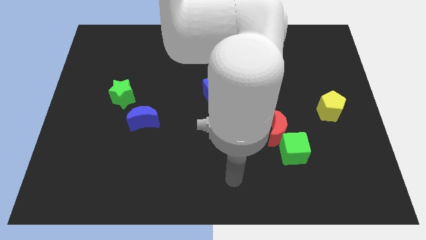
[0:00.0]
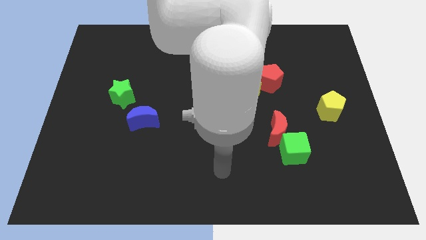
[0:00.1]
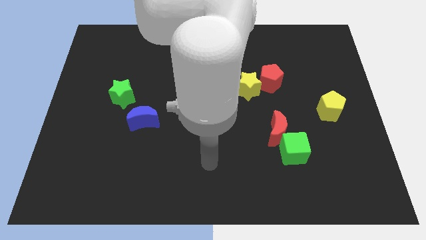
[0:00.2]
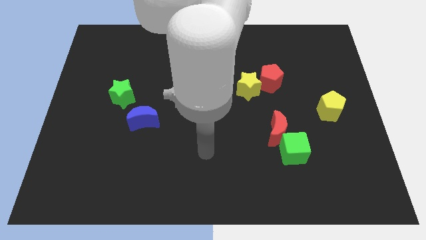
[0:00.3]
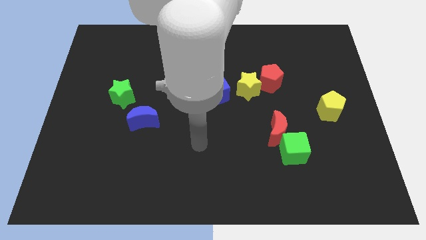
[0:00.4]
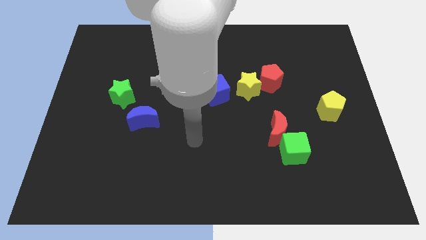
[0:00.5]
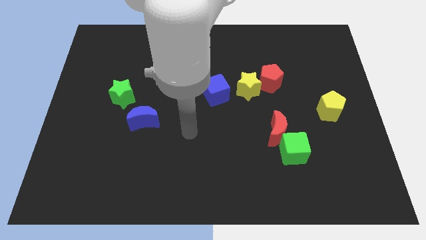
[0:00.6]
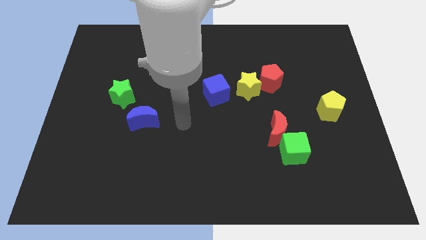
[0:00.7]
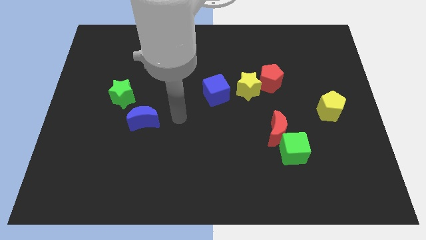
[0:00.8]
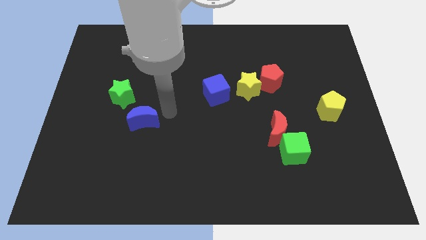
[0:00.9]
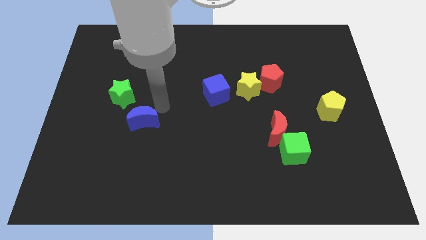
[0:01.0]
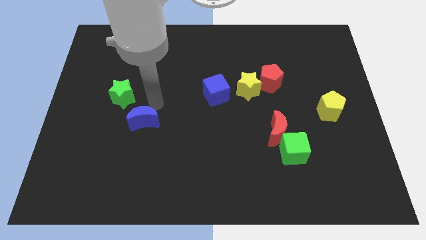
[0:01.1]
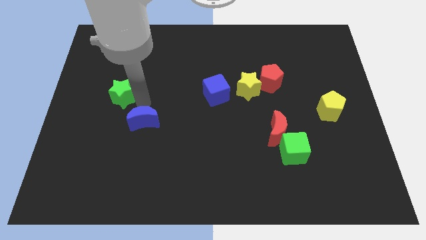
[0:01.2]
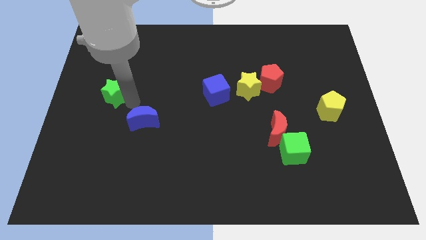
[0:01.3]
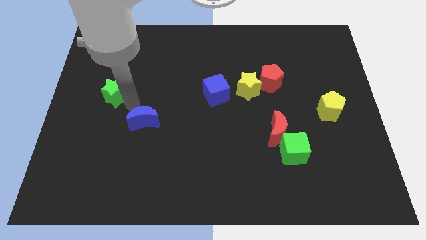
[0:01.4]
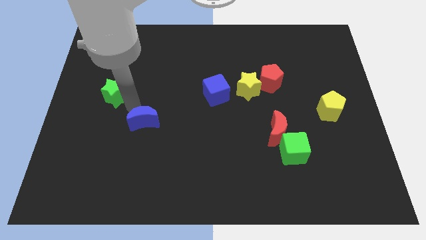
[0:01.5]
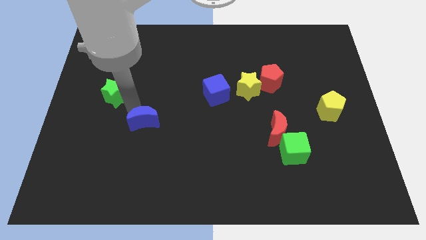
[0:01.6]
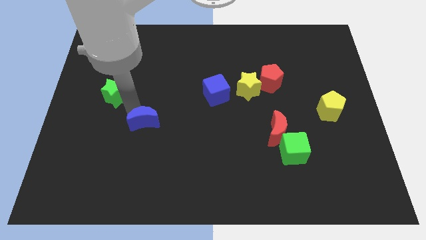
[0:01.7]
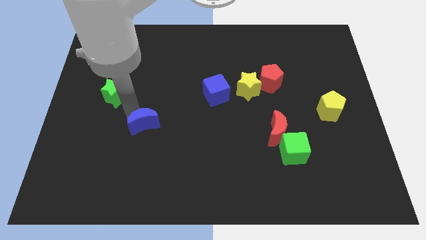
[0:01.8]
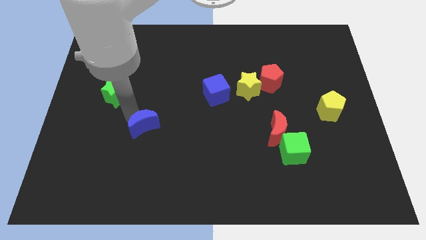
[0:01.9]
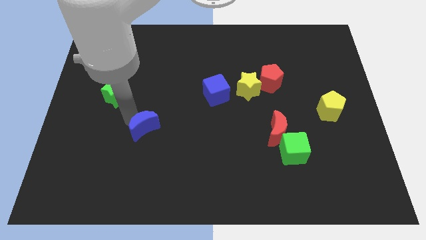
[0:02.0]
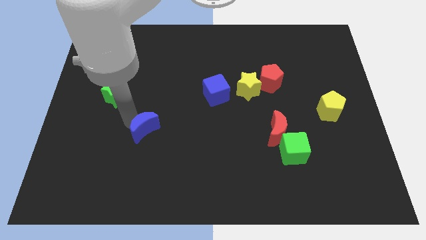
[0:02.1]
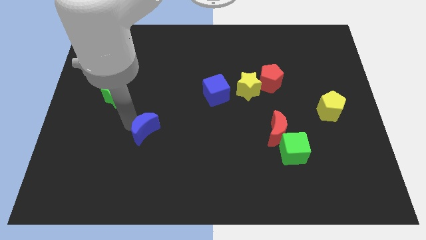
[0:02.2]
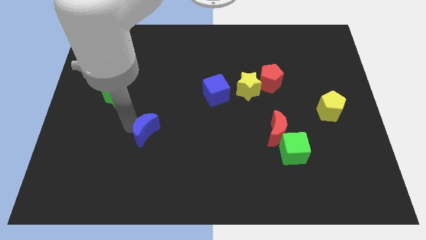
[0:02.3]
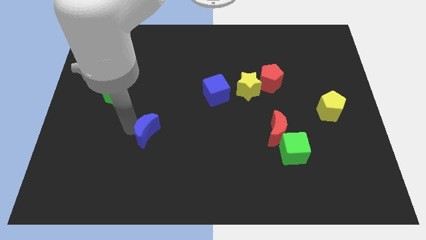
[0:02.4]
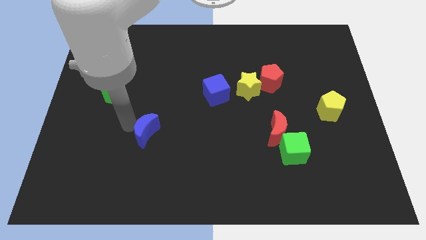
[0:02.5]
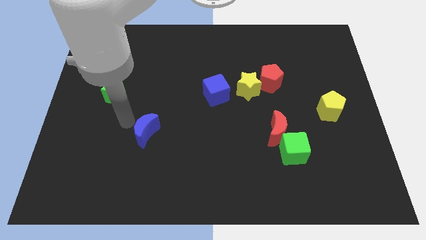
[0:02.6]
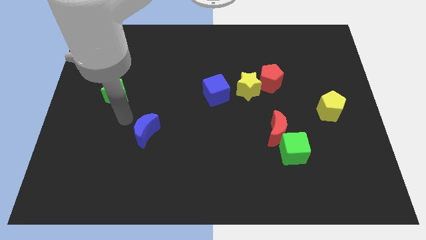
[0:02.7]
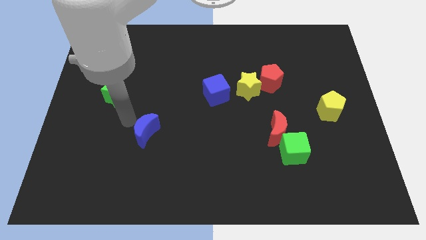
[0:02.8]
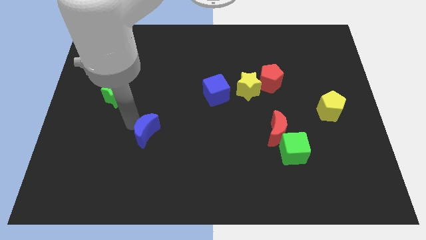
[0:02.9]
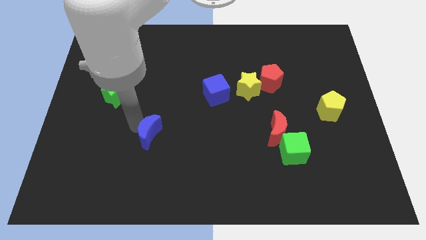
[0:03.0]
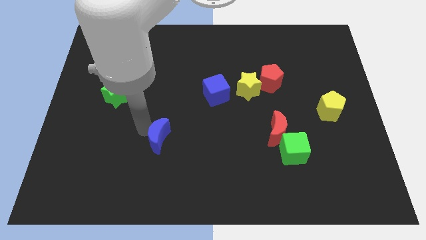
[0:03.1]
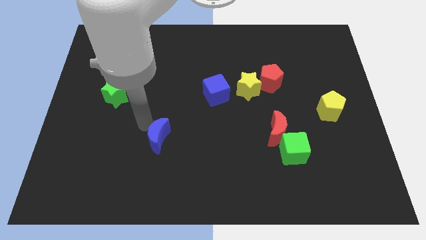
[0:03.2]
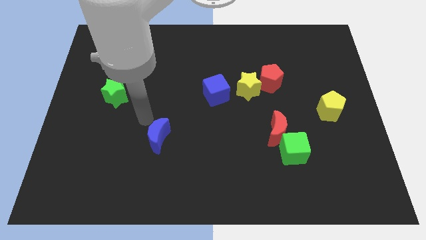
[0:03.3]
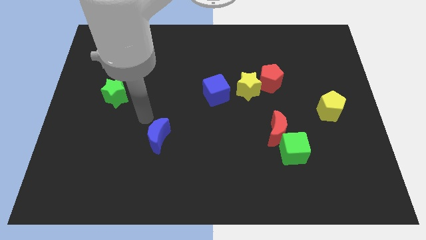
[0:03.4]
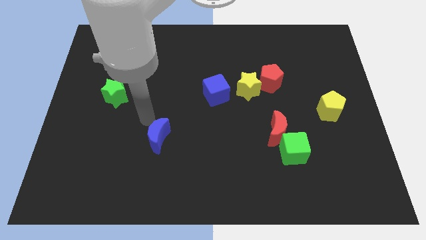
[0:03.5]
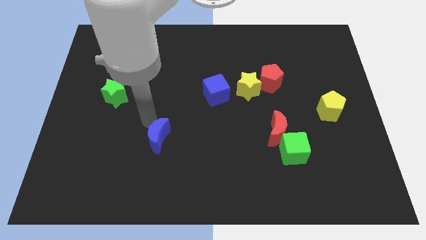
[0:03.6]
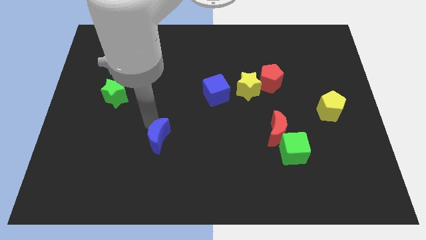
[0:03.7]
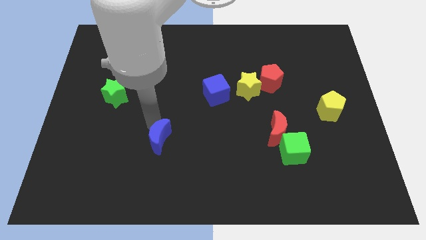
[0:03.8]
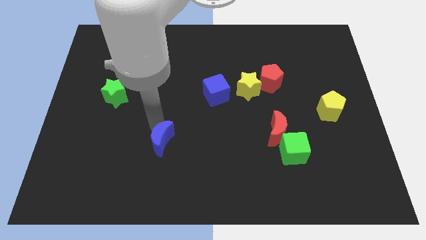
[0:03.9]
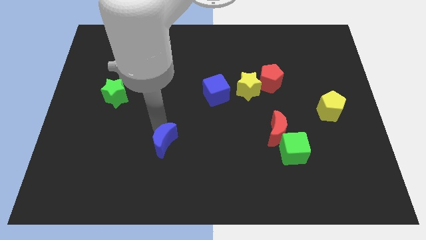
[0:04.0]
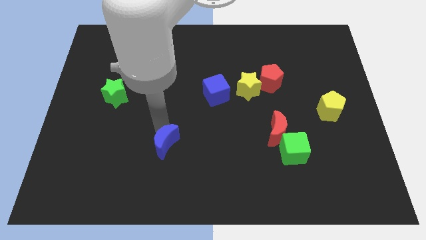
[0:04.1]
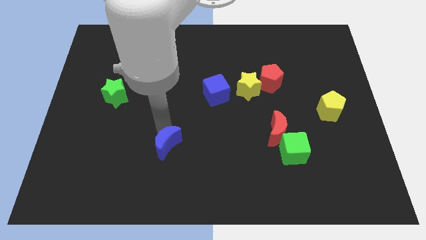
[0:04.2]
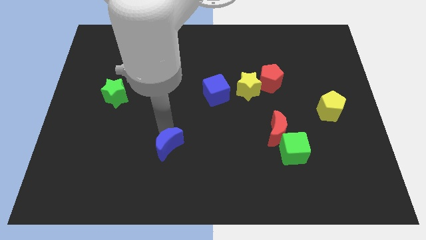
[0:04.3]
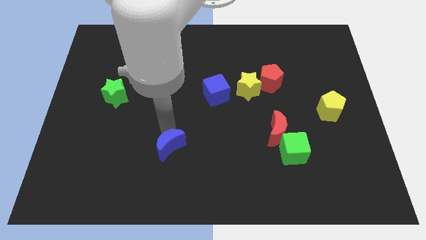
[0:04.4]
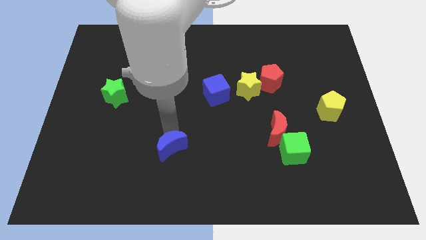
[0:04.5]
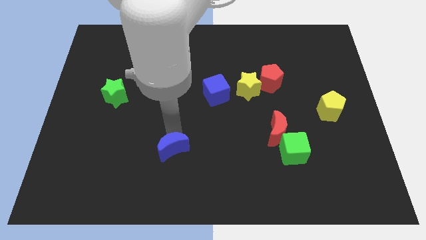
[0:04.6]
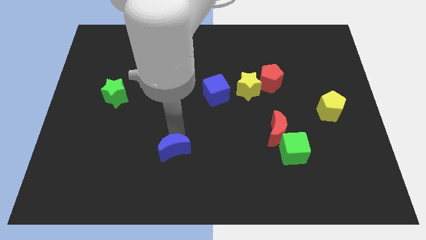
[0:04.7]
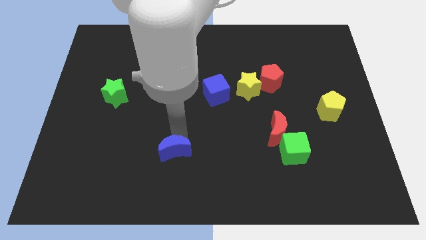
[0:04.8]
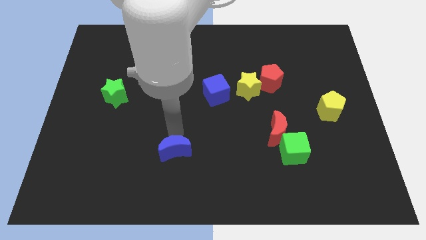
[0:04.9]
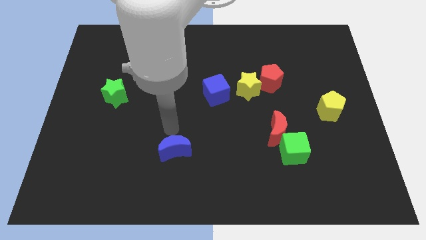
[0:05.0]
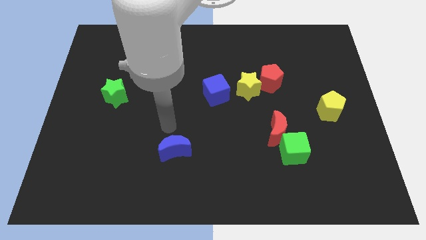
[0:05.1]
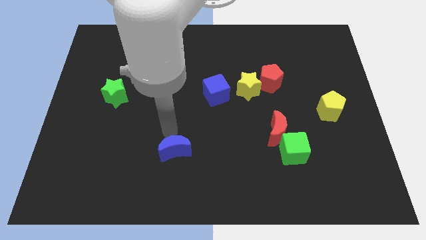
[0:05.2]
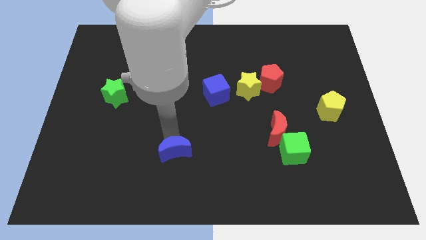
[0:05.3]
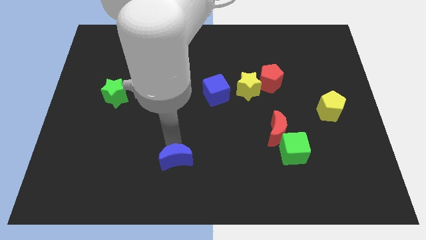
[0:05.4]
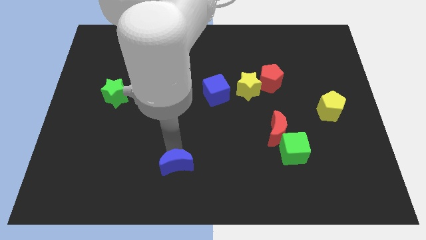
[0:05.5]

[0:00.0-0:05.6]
slide the blue moon to the bottom

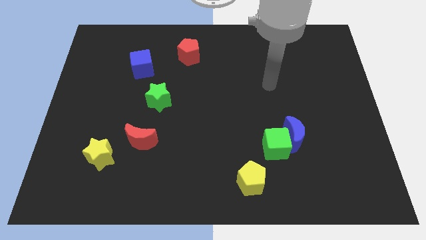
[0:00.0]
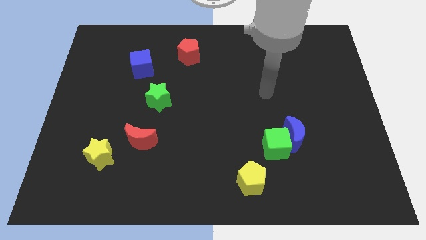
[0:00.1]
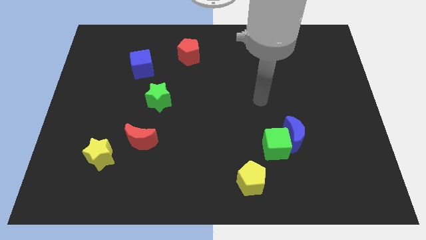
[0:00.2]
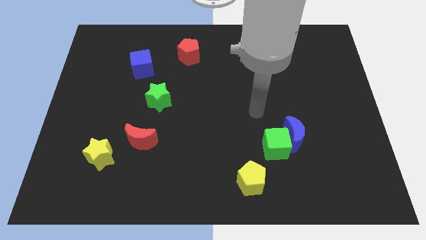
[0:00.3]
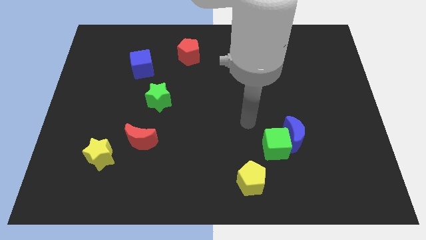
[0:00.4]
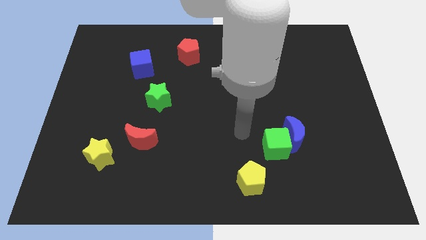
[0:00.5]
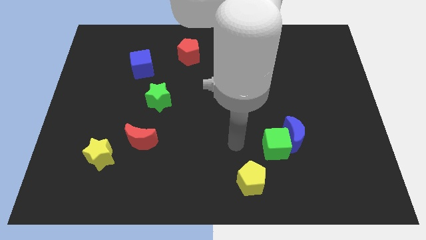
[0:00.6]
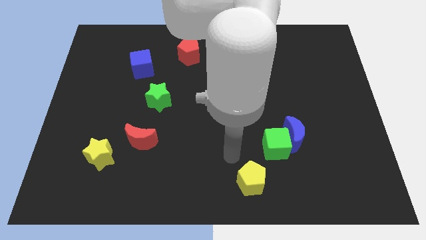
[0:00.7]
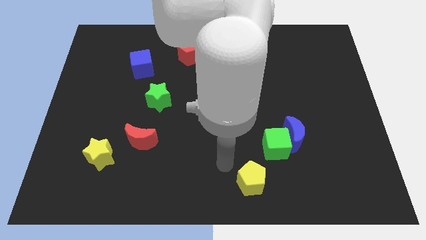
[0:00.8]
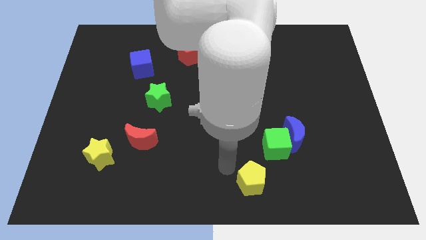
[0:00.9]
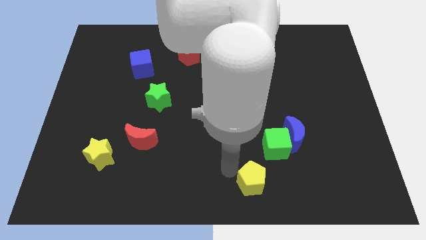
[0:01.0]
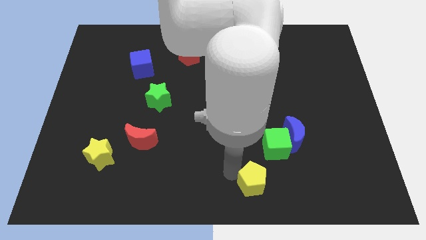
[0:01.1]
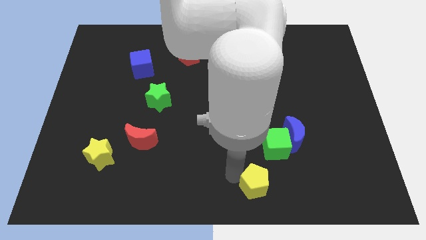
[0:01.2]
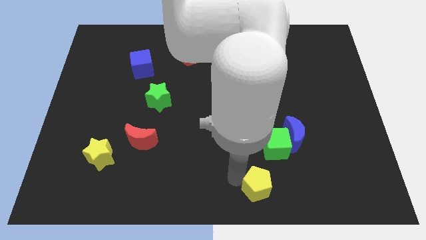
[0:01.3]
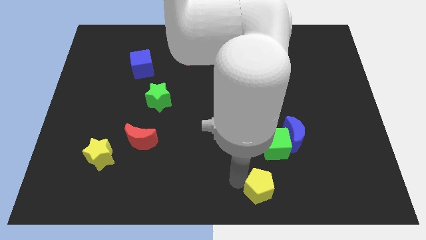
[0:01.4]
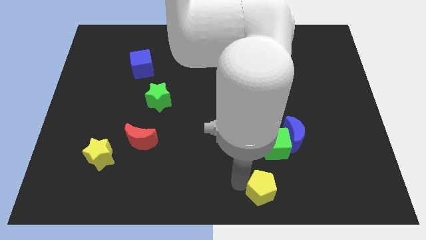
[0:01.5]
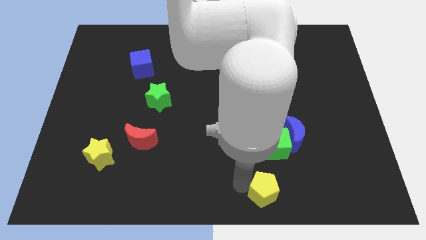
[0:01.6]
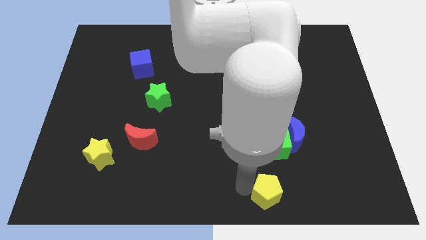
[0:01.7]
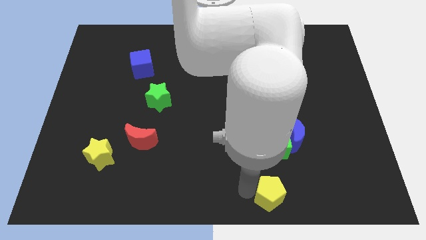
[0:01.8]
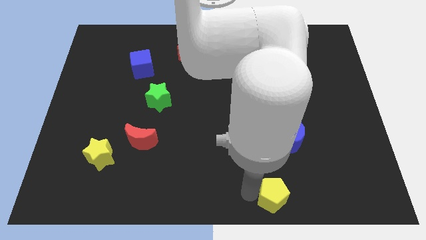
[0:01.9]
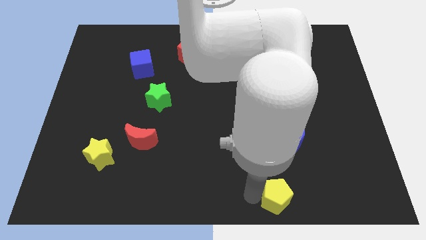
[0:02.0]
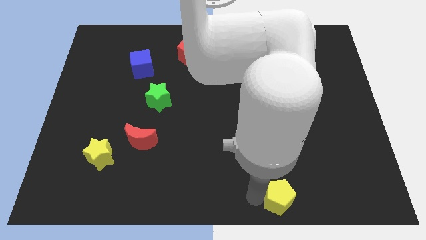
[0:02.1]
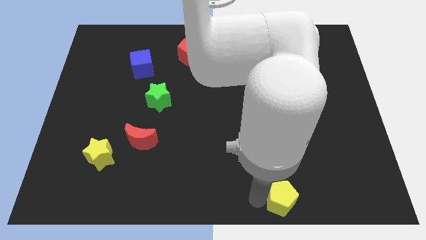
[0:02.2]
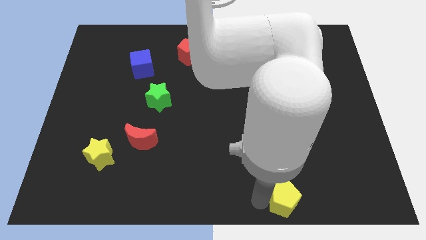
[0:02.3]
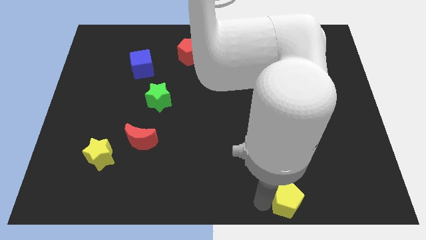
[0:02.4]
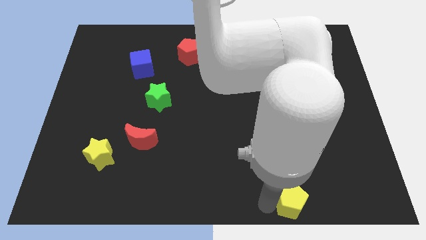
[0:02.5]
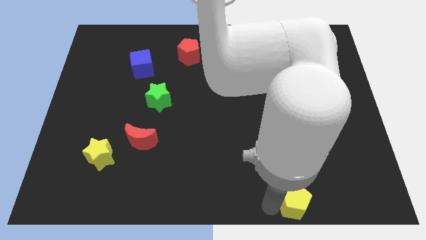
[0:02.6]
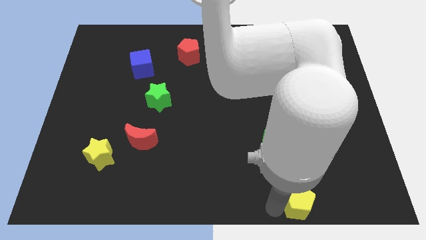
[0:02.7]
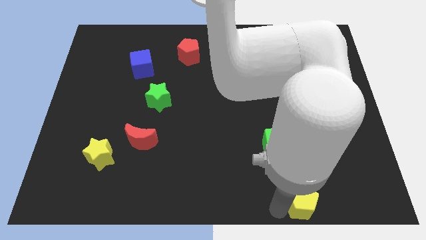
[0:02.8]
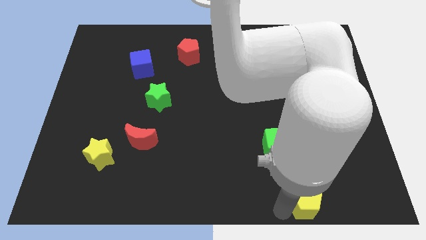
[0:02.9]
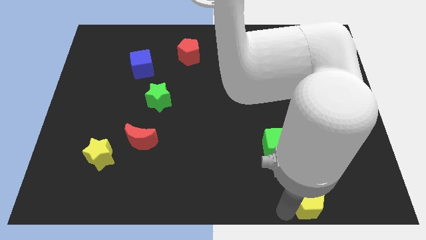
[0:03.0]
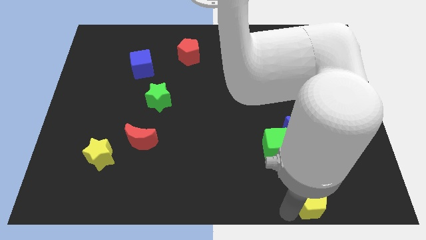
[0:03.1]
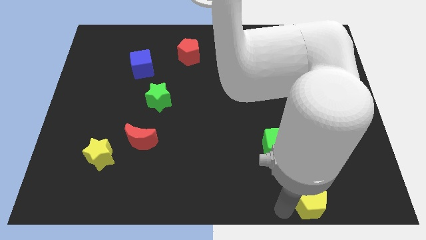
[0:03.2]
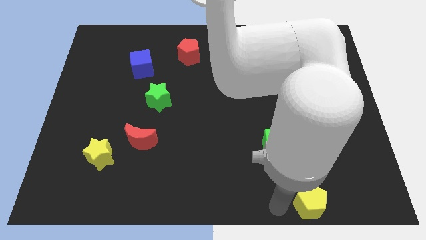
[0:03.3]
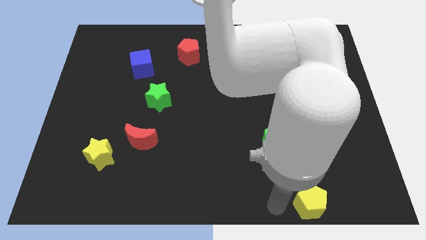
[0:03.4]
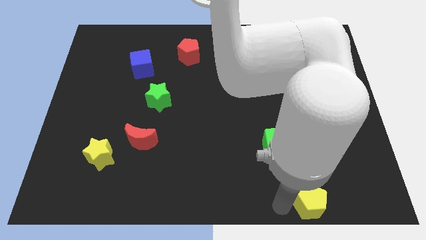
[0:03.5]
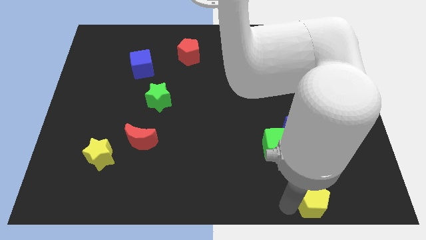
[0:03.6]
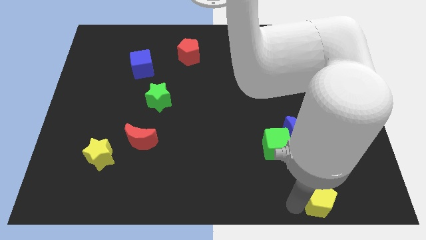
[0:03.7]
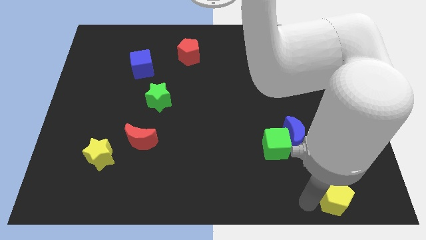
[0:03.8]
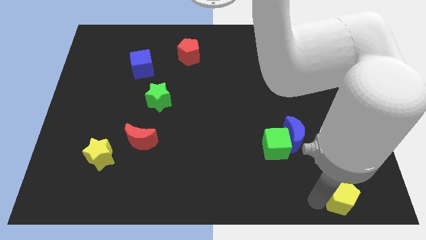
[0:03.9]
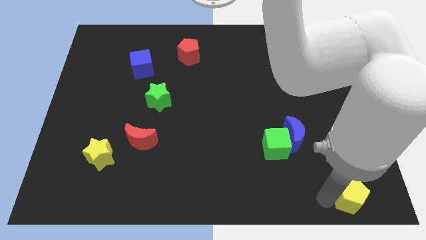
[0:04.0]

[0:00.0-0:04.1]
push the yellow pentagon to the lower right corner
